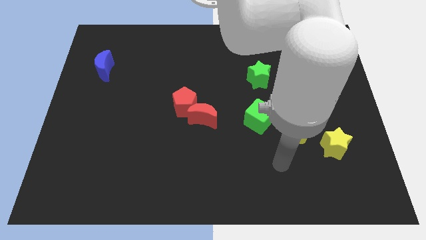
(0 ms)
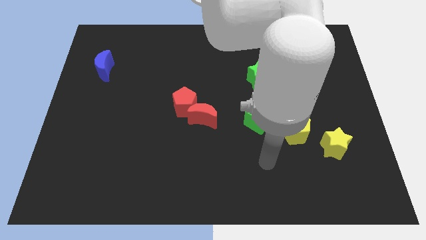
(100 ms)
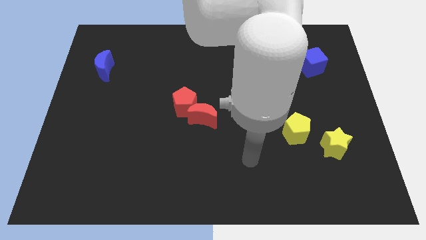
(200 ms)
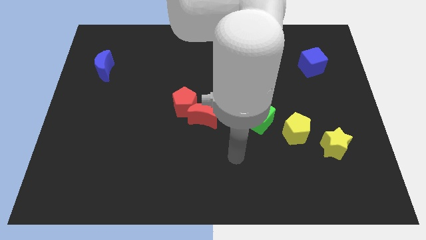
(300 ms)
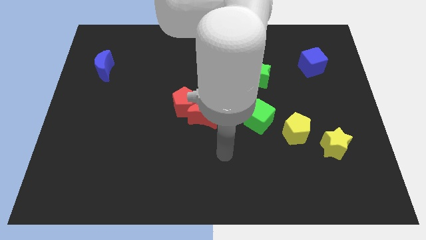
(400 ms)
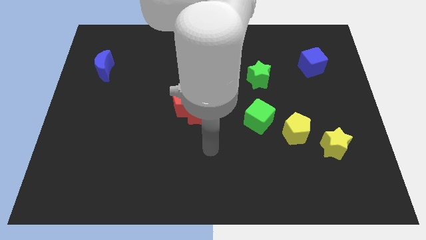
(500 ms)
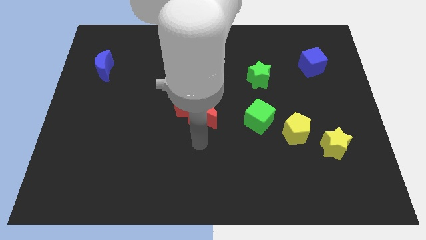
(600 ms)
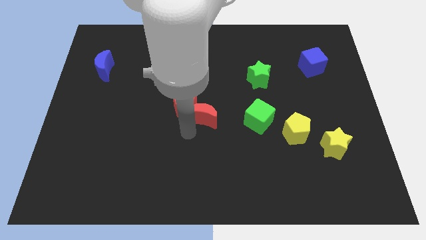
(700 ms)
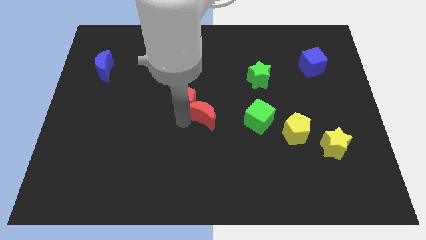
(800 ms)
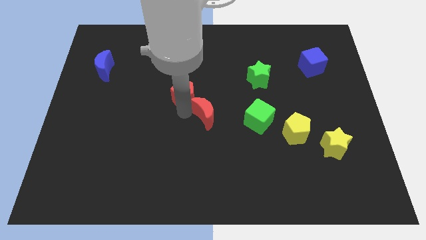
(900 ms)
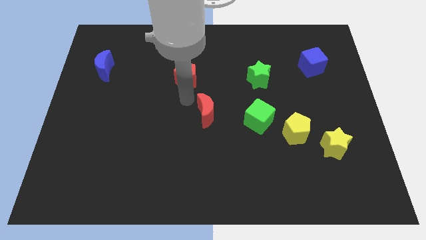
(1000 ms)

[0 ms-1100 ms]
move the red moon away from the red pentagon

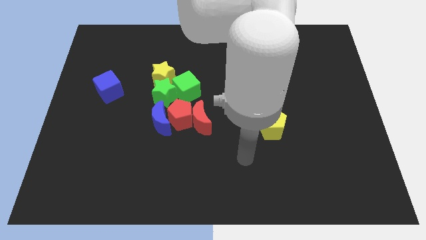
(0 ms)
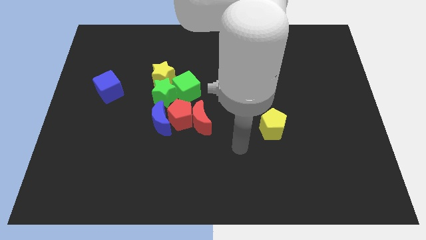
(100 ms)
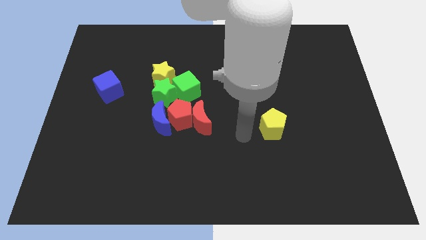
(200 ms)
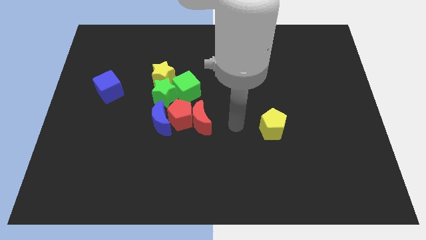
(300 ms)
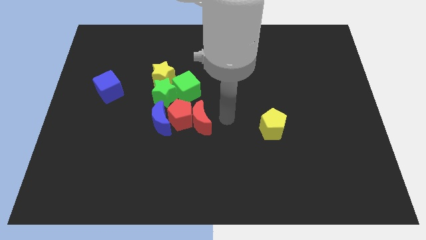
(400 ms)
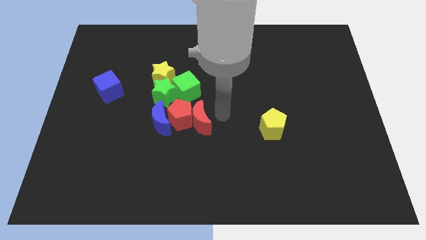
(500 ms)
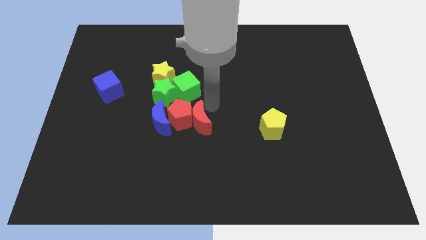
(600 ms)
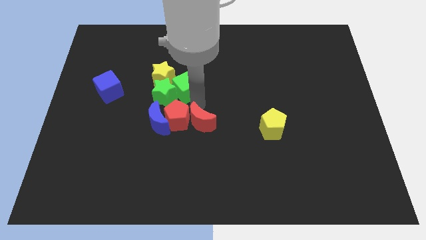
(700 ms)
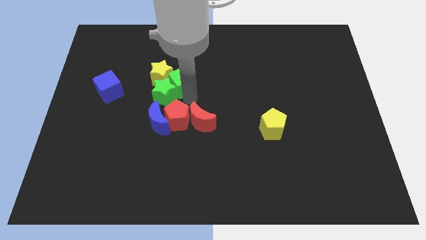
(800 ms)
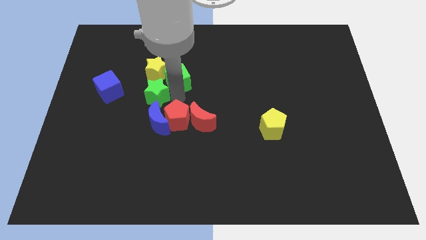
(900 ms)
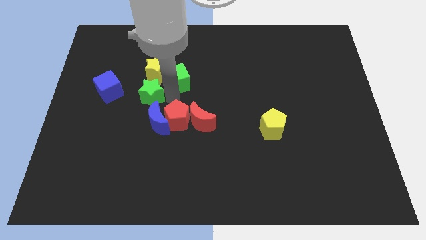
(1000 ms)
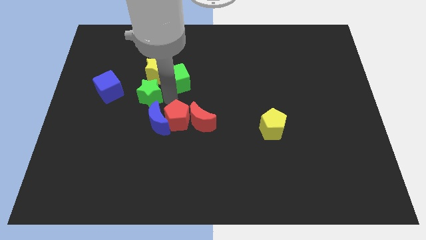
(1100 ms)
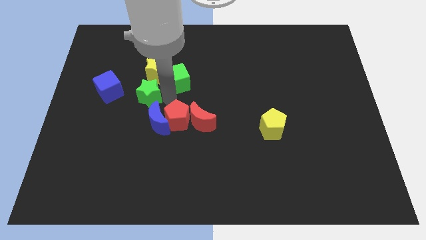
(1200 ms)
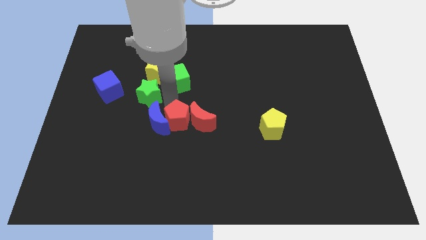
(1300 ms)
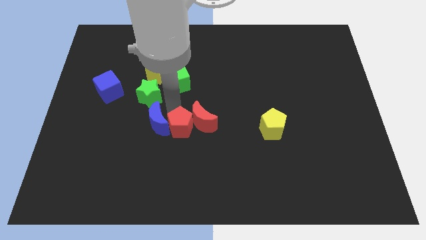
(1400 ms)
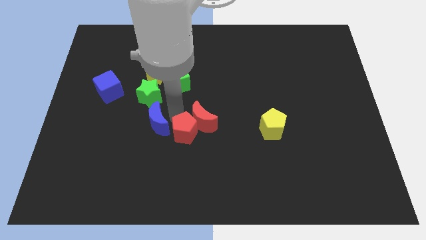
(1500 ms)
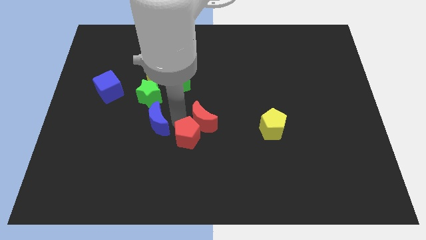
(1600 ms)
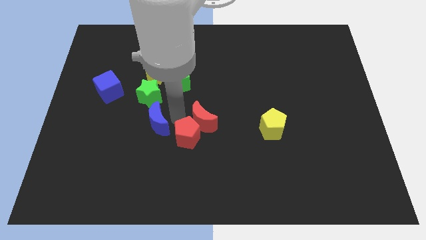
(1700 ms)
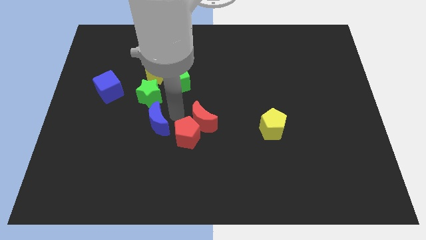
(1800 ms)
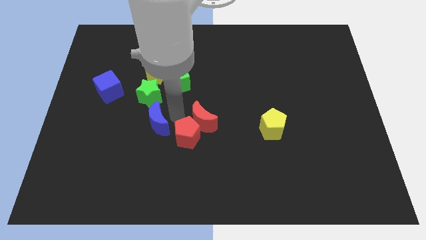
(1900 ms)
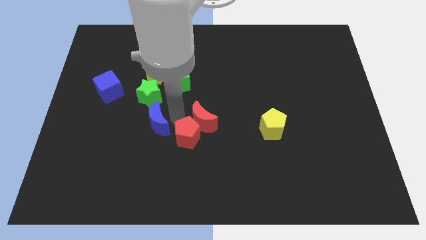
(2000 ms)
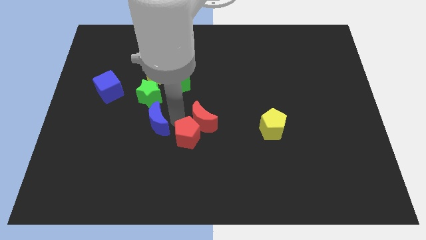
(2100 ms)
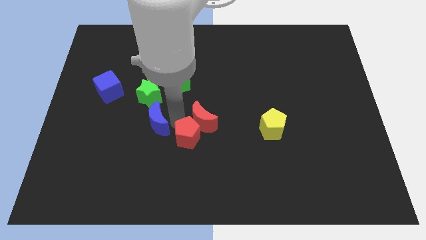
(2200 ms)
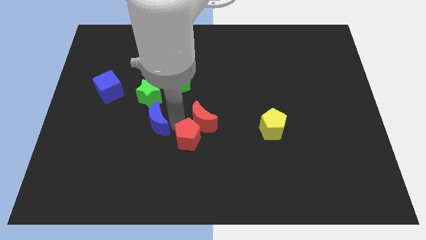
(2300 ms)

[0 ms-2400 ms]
move the red pentagon away from the group of blocks

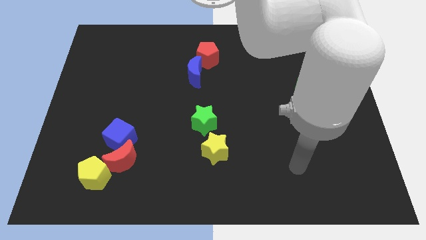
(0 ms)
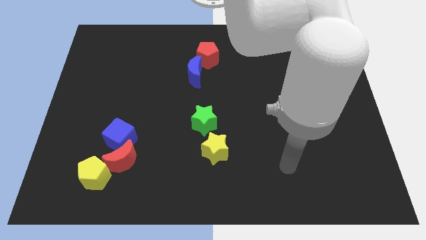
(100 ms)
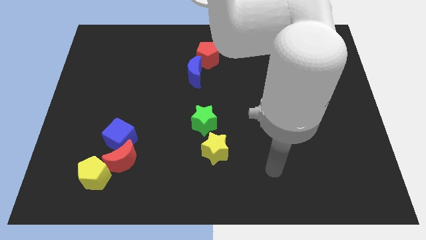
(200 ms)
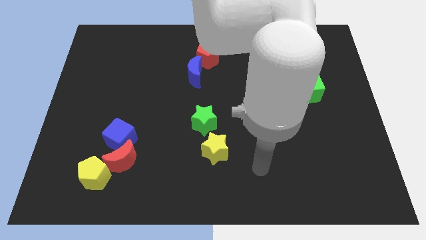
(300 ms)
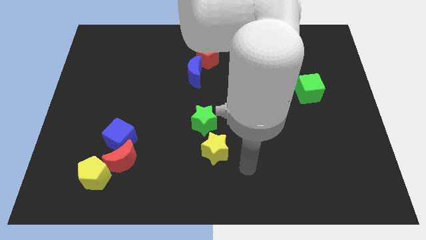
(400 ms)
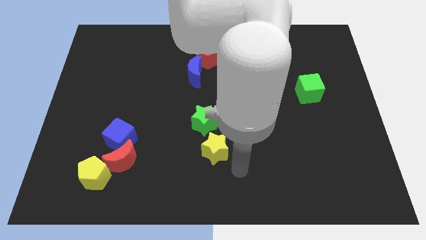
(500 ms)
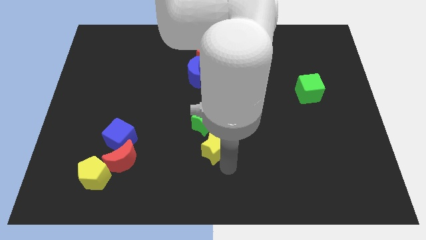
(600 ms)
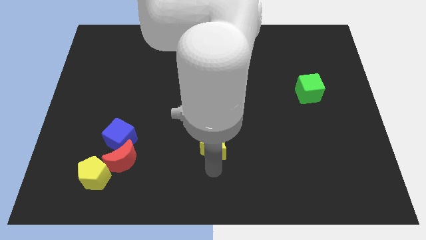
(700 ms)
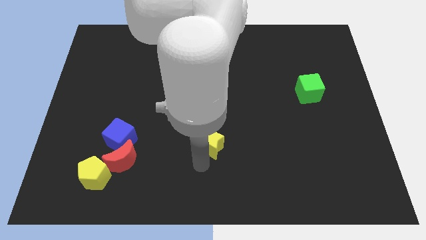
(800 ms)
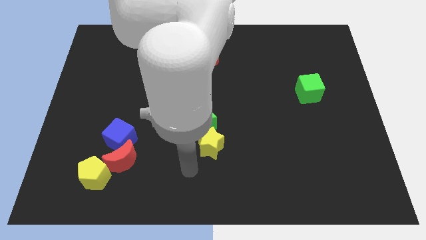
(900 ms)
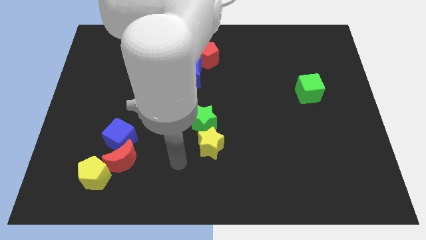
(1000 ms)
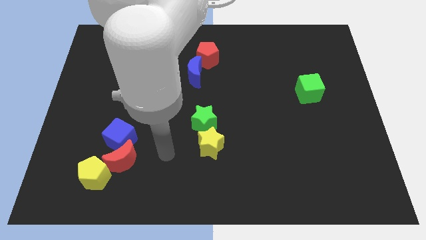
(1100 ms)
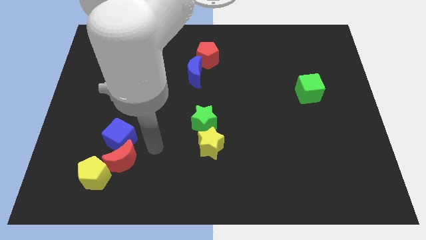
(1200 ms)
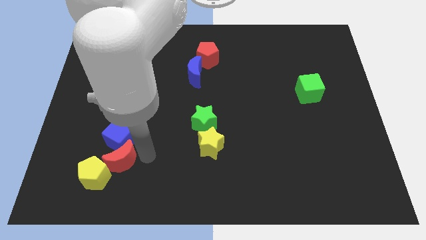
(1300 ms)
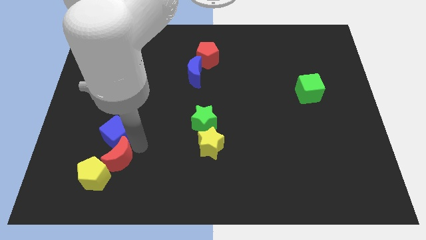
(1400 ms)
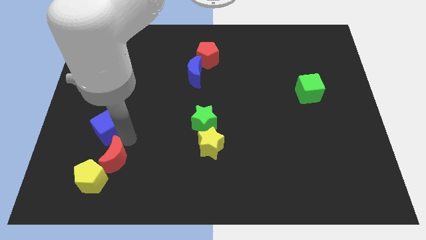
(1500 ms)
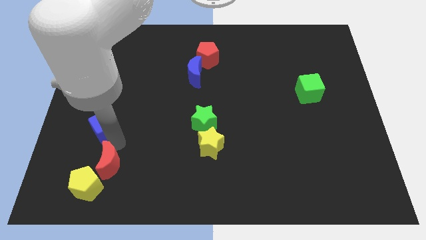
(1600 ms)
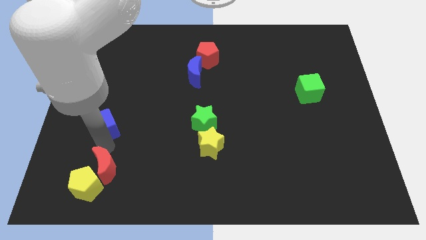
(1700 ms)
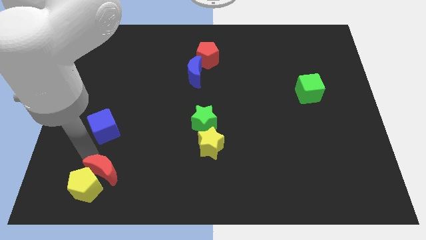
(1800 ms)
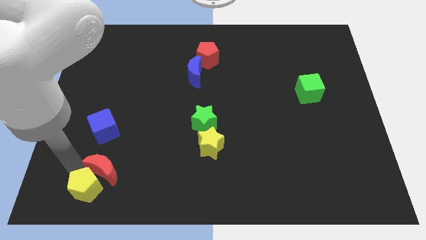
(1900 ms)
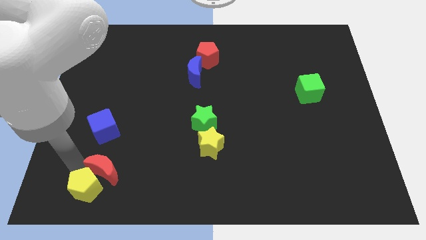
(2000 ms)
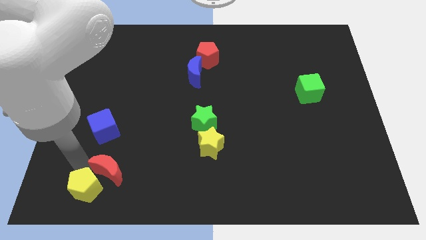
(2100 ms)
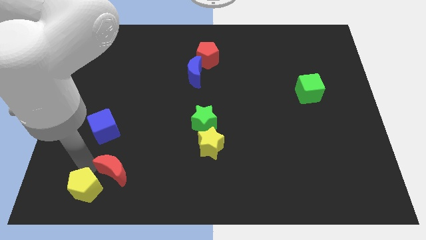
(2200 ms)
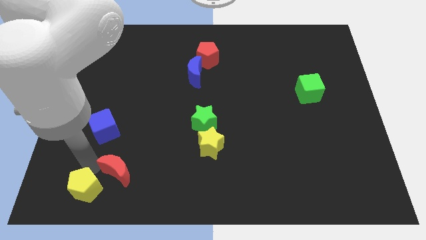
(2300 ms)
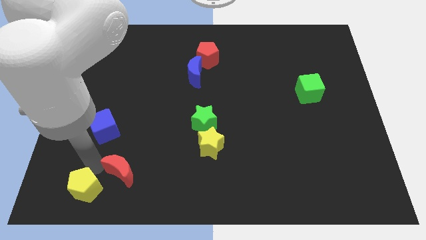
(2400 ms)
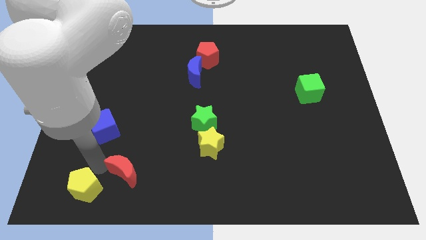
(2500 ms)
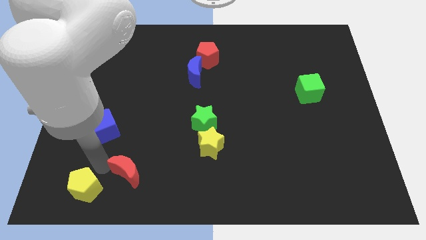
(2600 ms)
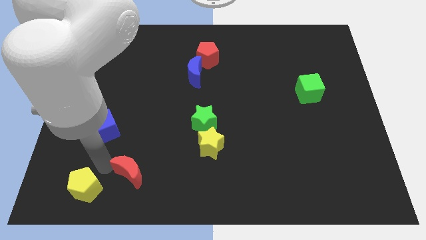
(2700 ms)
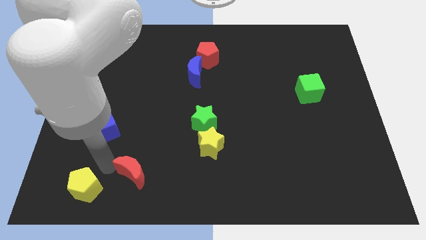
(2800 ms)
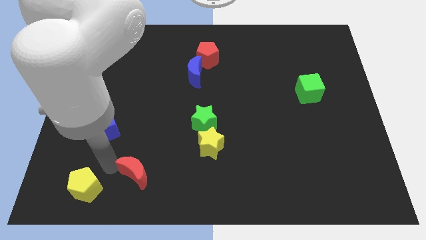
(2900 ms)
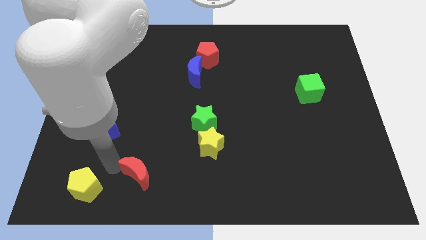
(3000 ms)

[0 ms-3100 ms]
pull the red moon apart from the blue cube and yellow pentagon

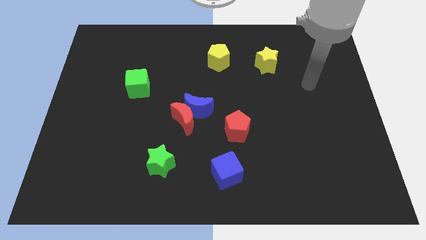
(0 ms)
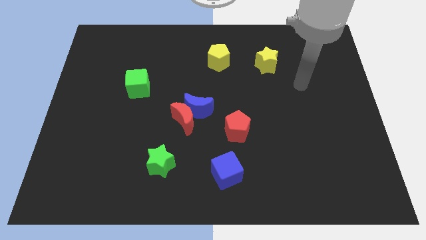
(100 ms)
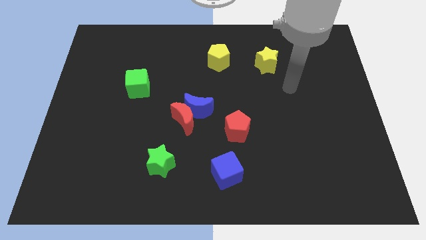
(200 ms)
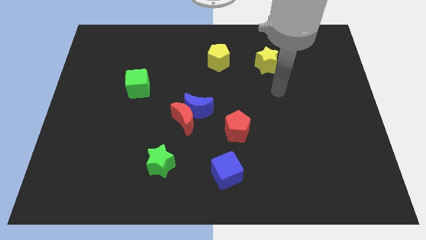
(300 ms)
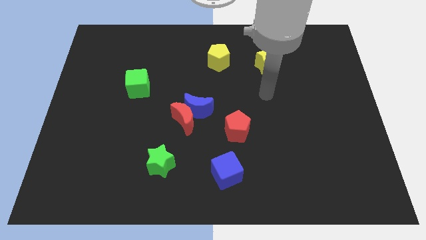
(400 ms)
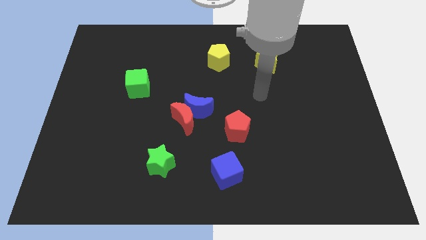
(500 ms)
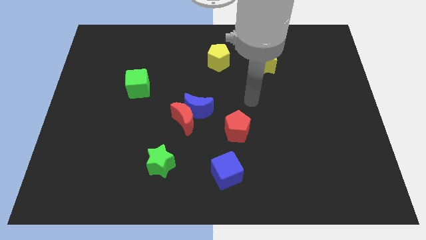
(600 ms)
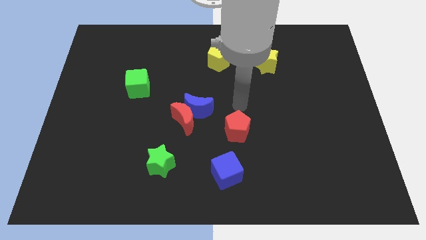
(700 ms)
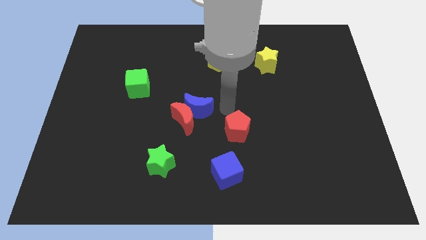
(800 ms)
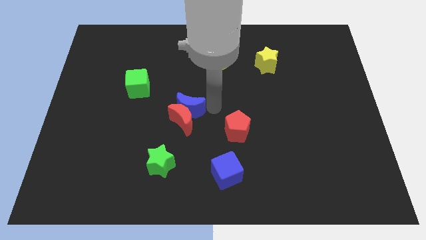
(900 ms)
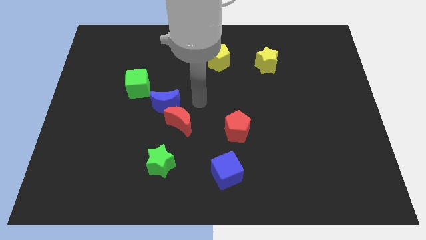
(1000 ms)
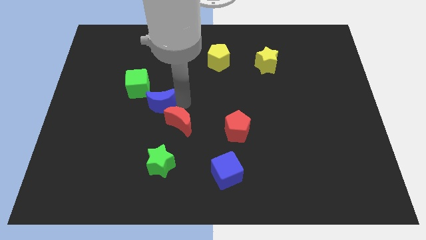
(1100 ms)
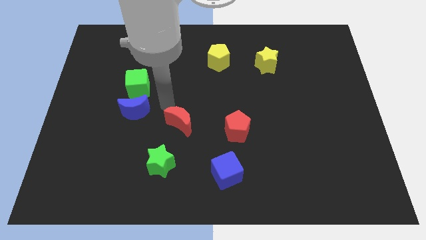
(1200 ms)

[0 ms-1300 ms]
pull the red moon apart from the blue moon

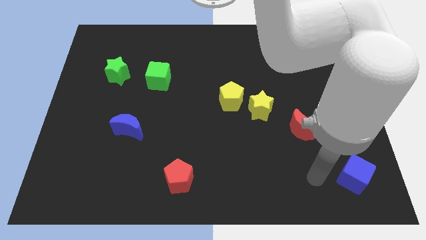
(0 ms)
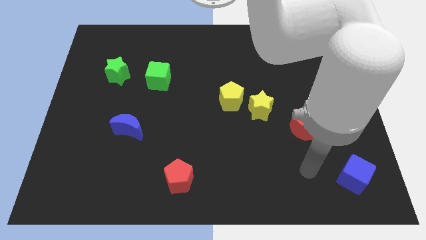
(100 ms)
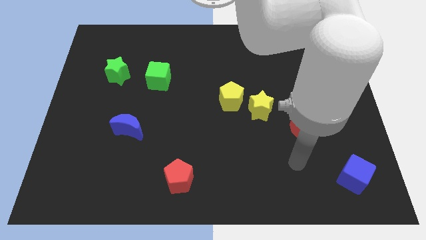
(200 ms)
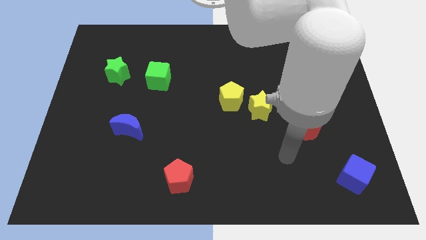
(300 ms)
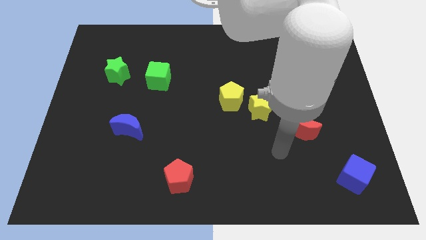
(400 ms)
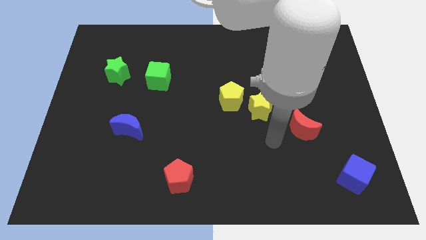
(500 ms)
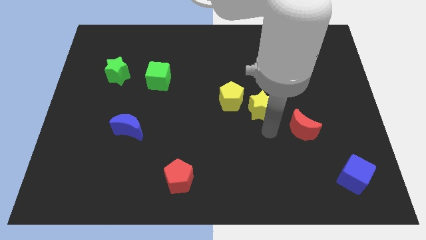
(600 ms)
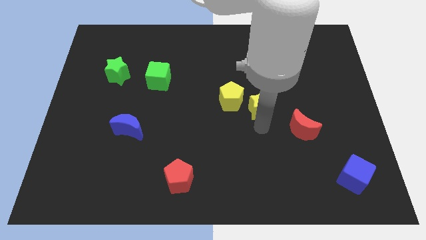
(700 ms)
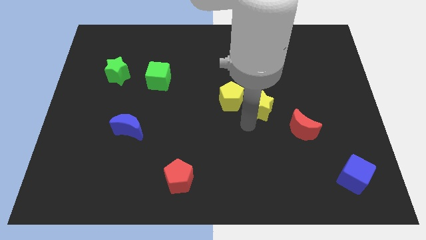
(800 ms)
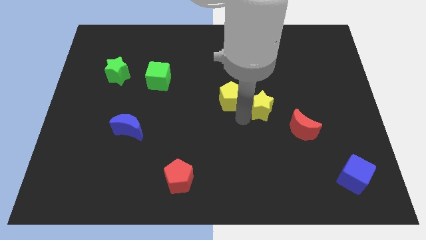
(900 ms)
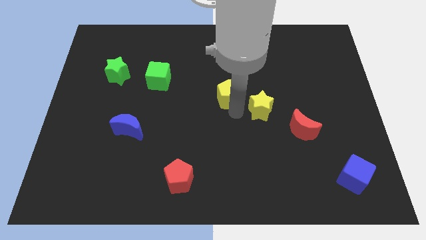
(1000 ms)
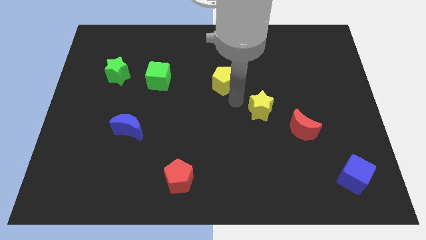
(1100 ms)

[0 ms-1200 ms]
separate the yellow star from the yellow pentagon

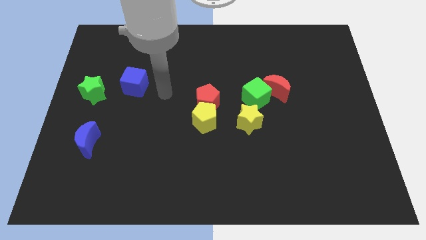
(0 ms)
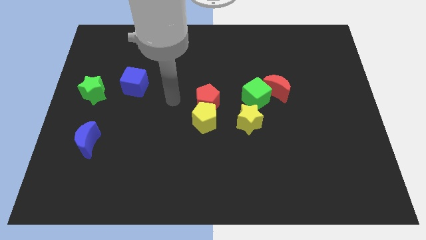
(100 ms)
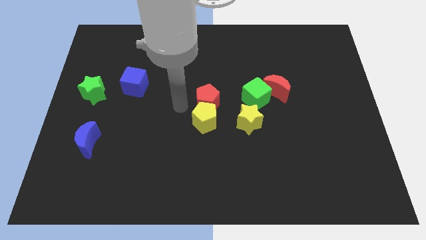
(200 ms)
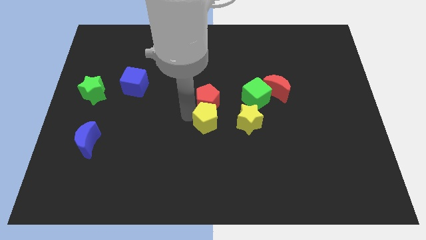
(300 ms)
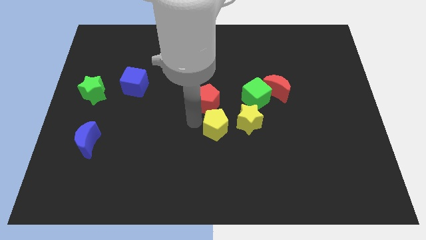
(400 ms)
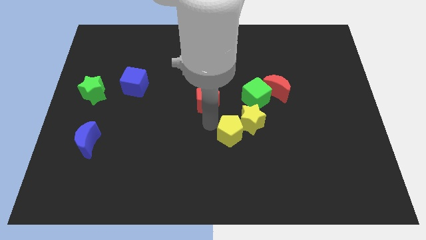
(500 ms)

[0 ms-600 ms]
pull the red pentagon apart from the yellow pentagon
